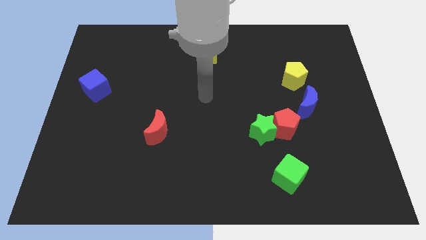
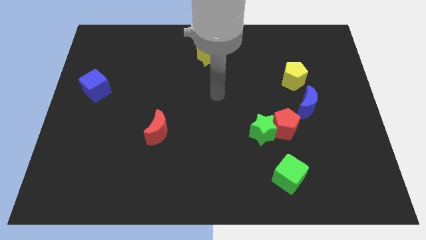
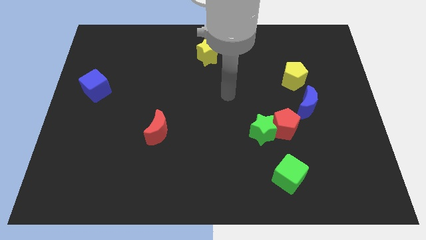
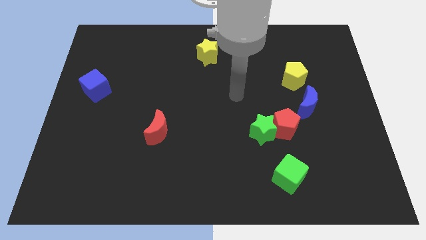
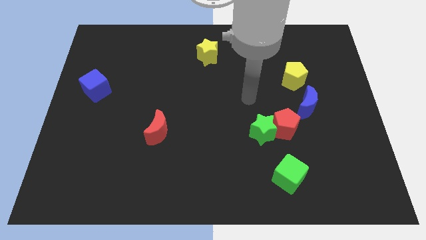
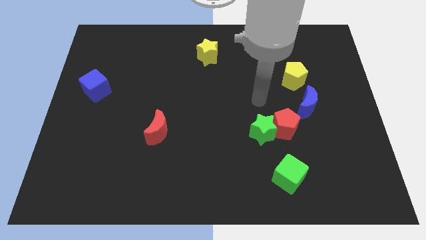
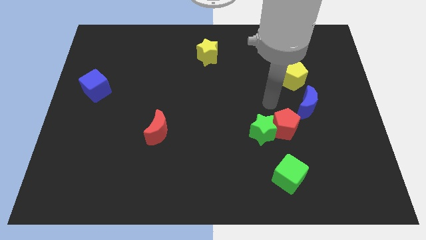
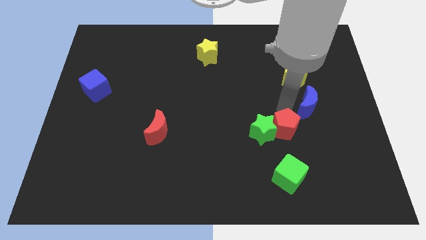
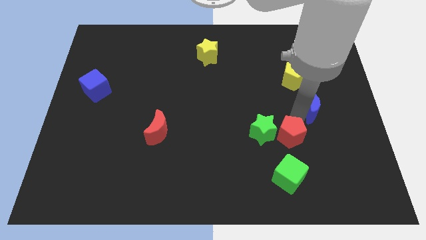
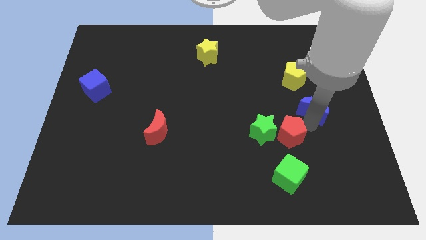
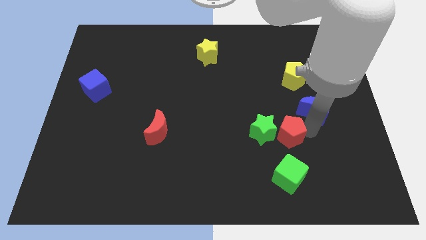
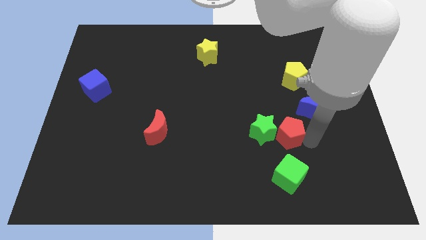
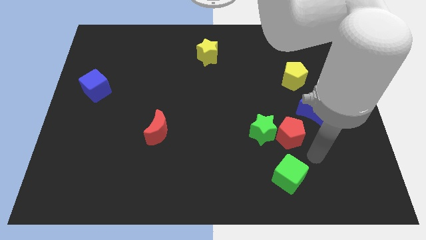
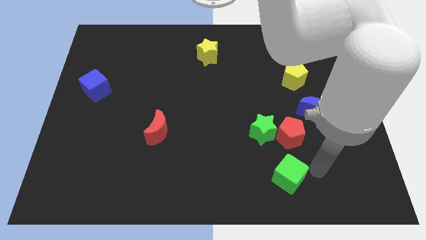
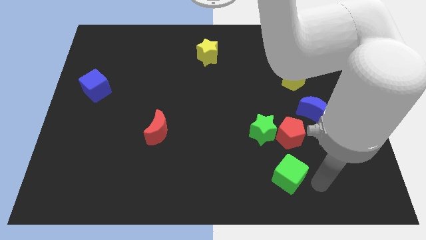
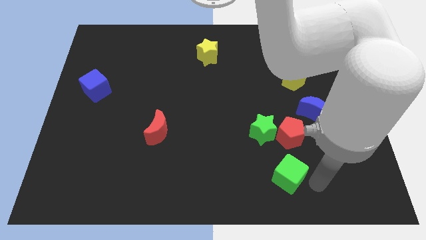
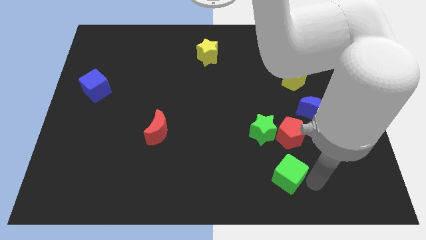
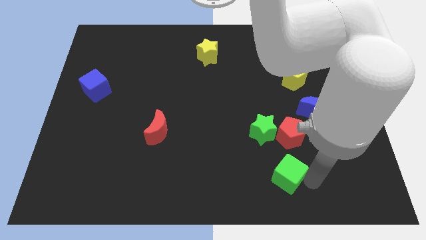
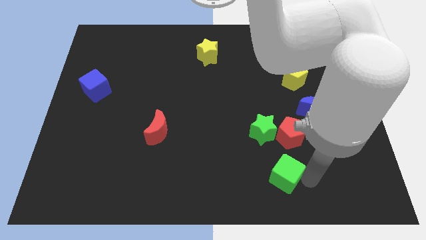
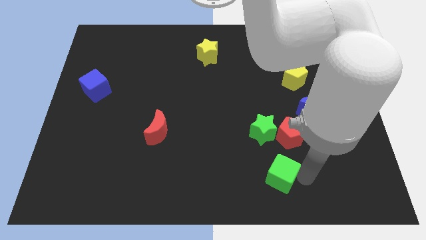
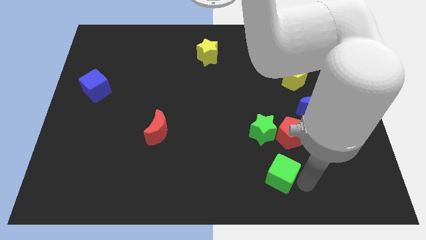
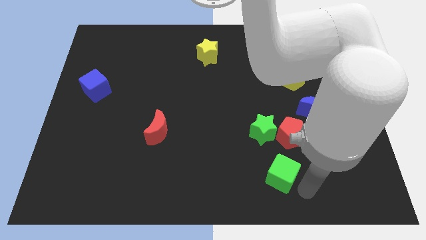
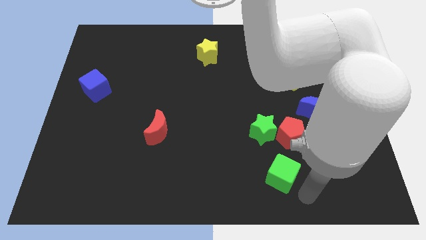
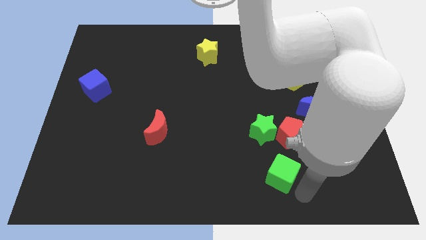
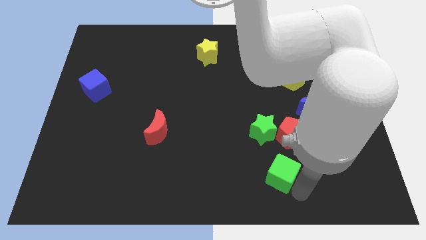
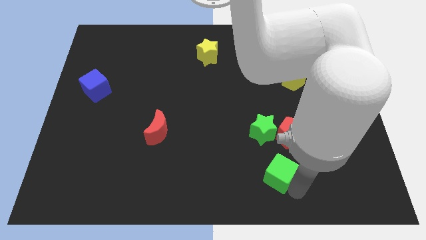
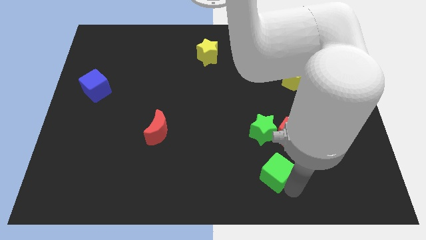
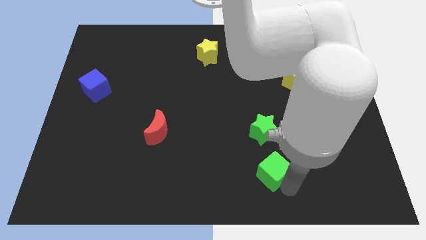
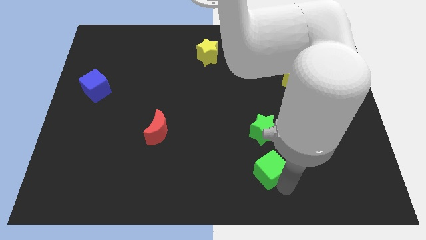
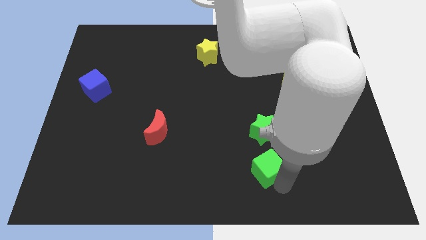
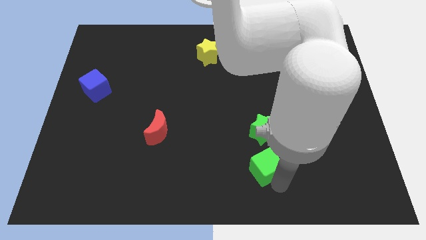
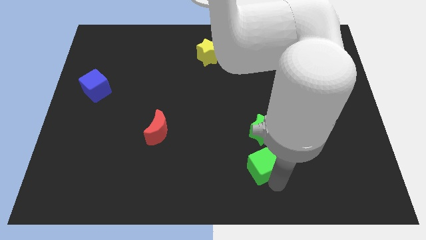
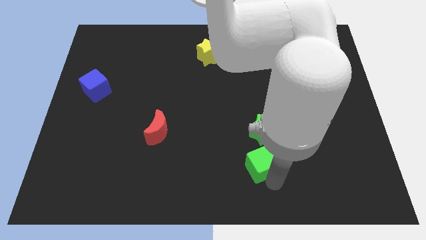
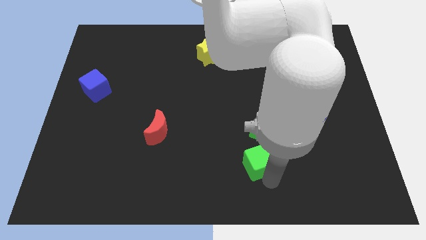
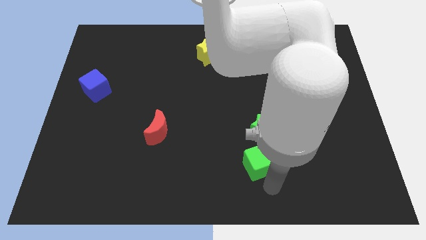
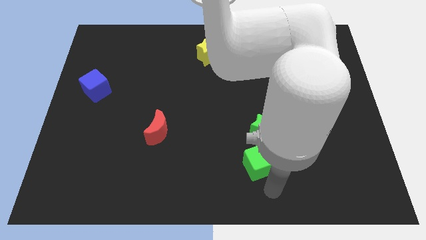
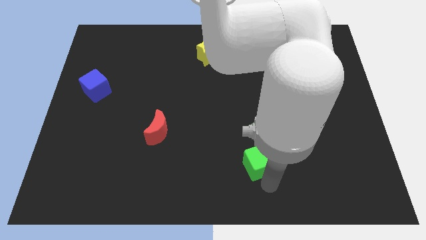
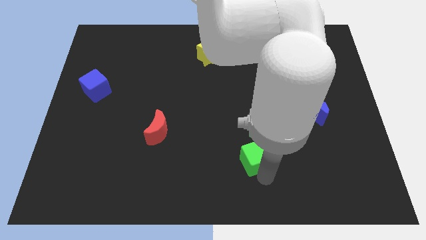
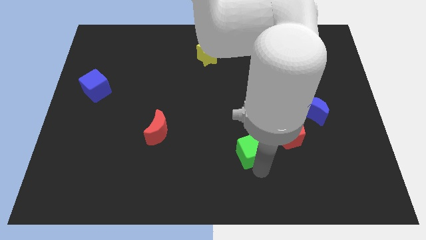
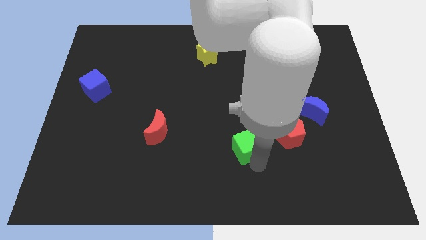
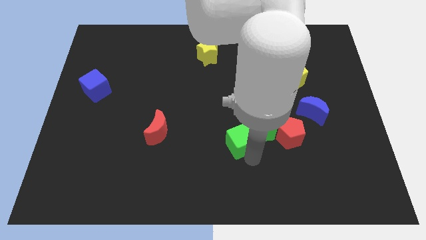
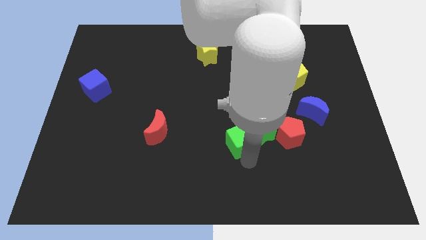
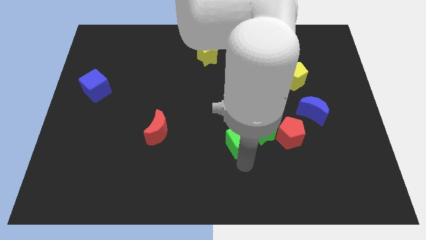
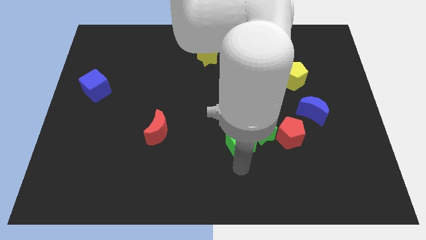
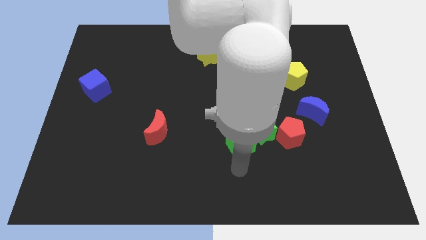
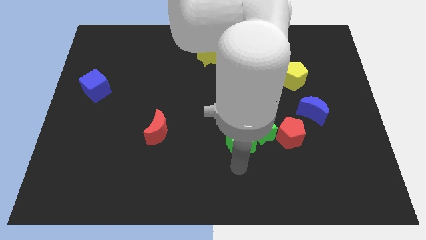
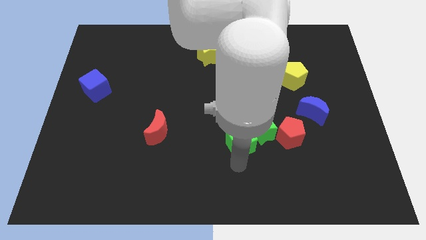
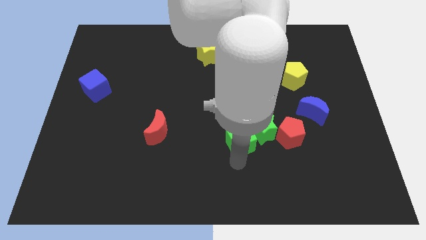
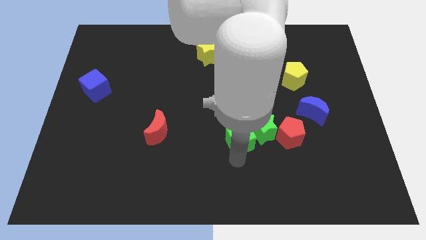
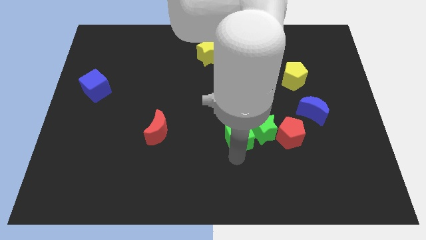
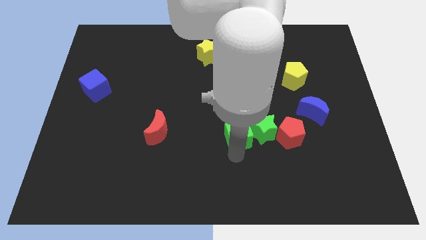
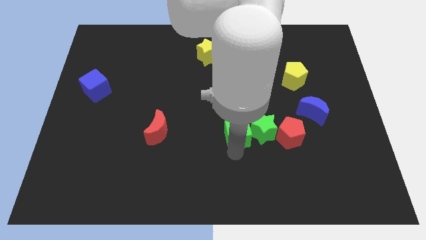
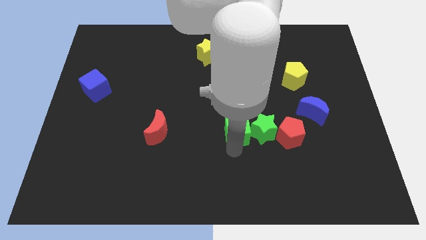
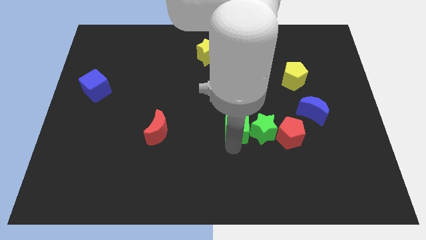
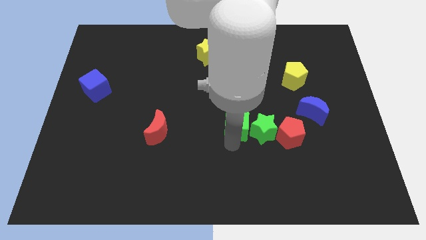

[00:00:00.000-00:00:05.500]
slide the green cube upwards slightly

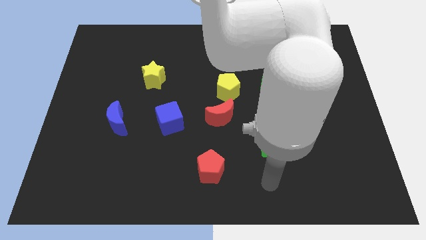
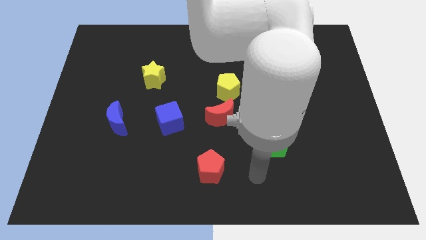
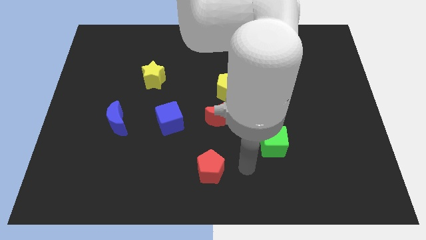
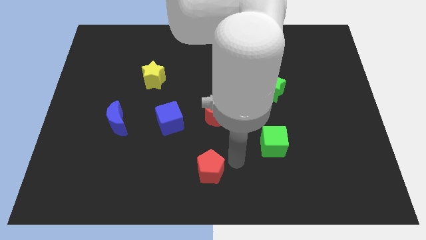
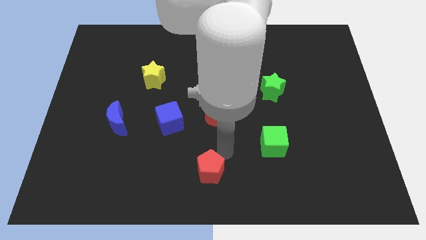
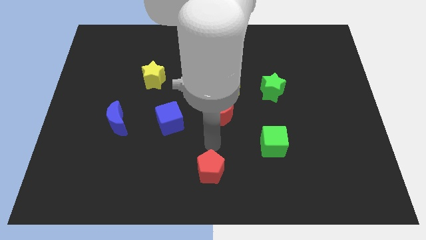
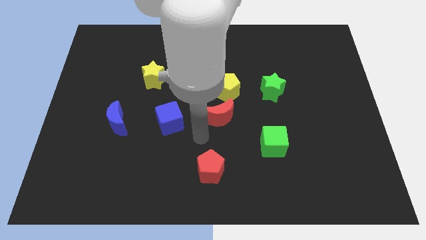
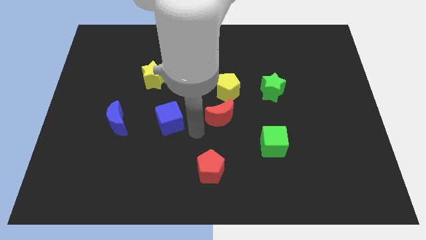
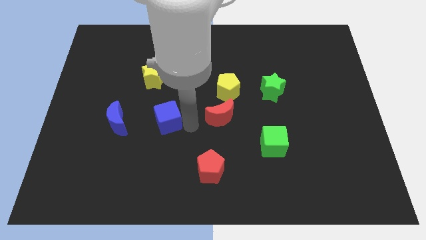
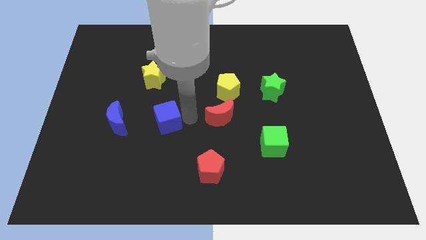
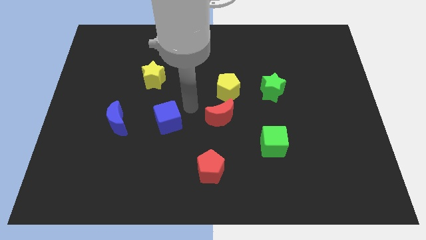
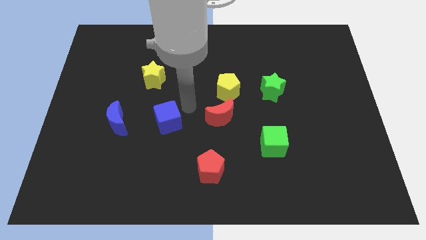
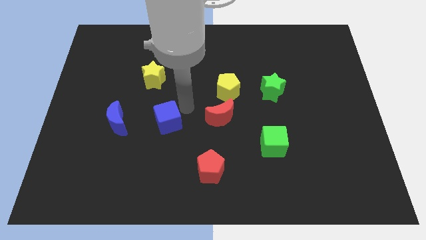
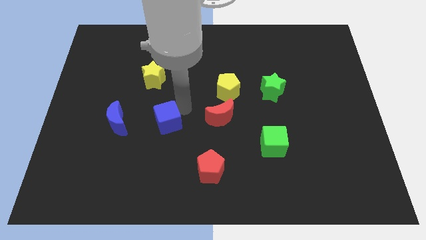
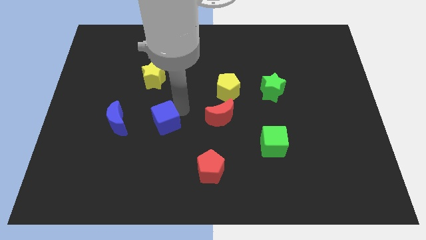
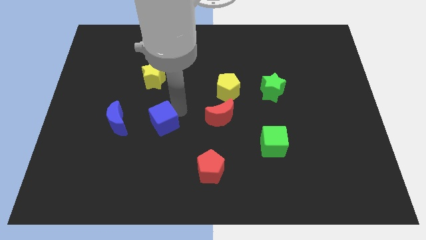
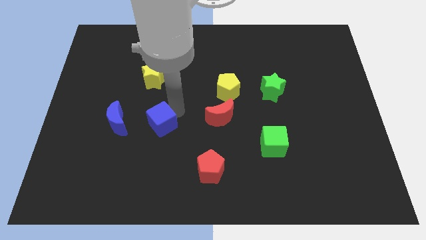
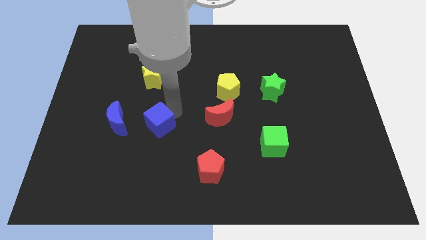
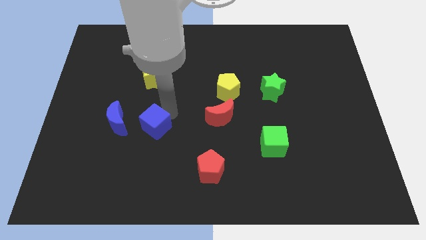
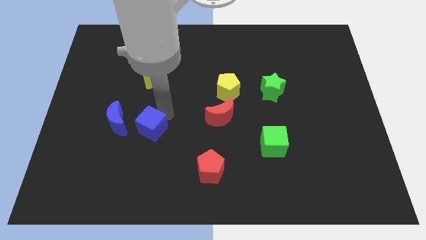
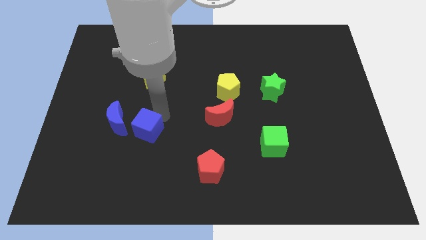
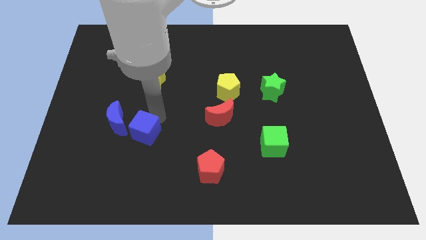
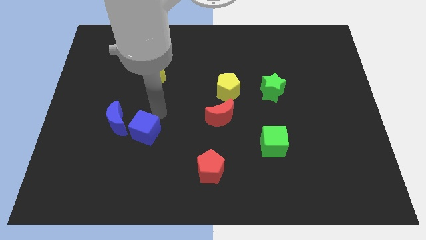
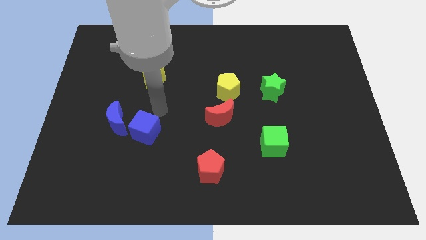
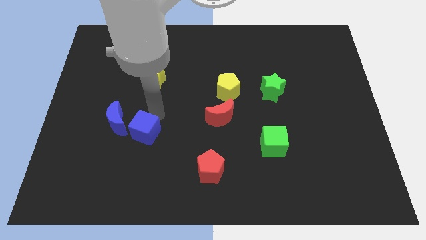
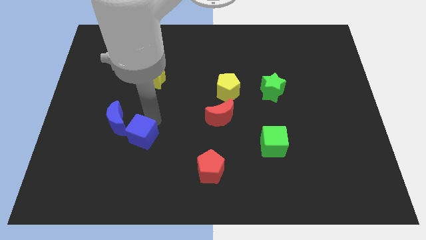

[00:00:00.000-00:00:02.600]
move the blue cube down and to the left diagonally a little bit
